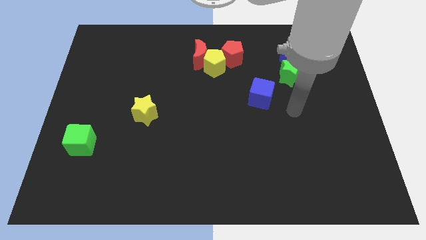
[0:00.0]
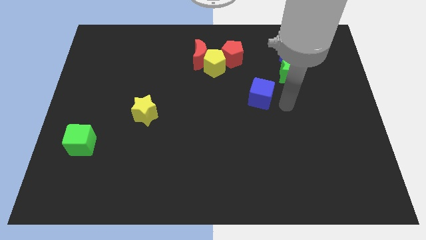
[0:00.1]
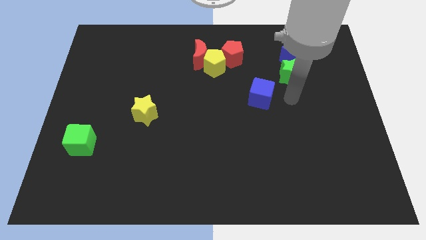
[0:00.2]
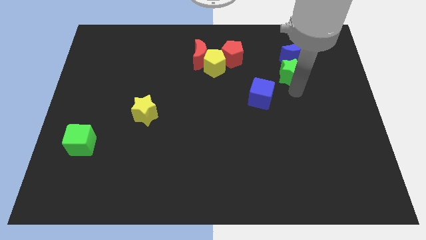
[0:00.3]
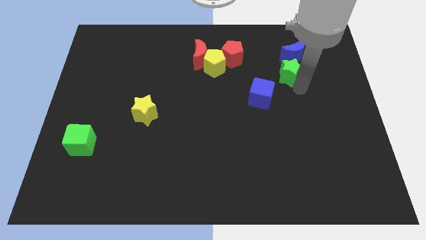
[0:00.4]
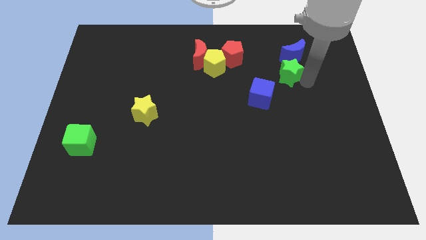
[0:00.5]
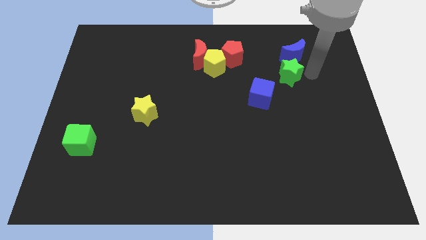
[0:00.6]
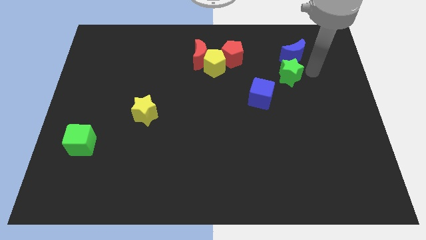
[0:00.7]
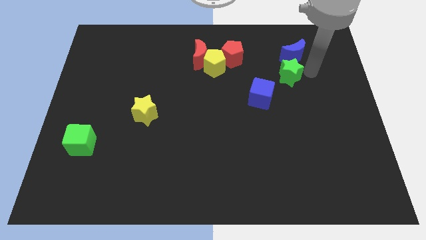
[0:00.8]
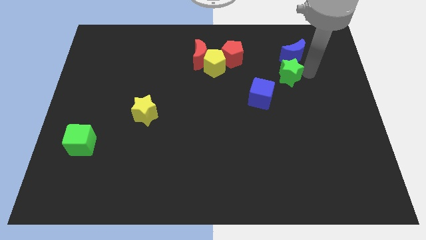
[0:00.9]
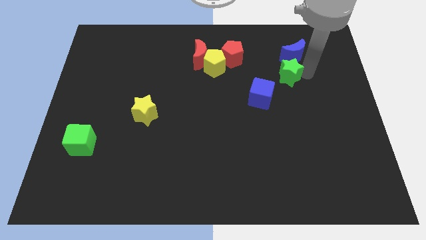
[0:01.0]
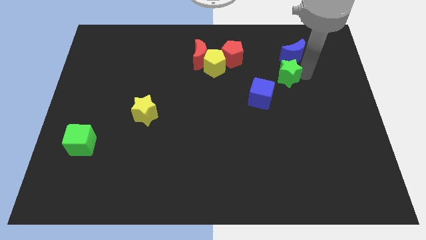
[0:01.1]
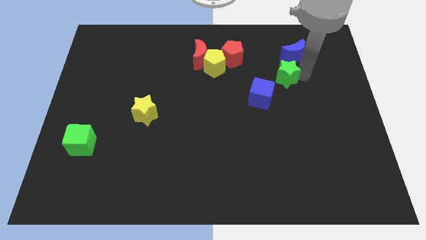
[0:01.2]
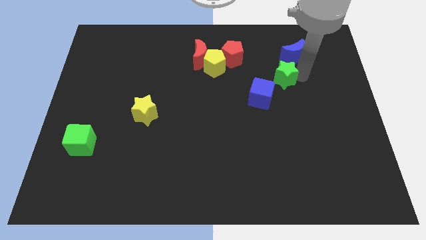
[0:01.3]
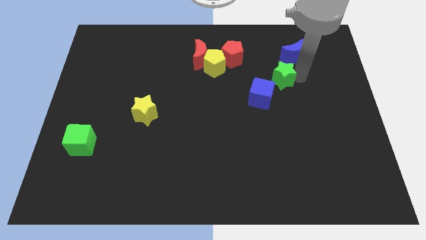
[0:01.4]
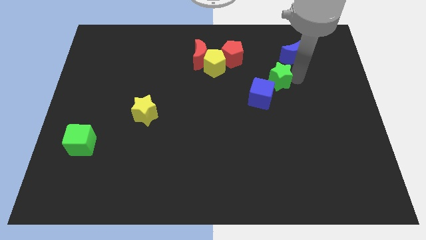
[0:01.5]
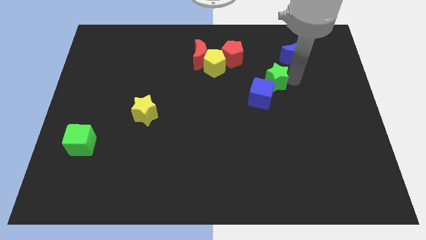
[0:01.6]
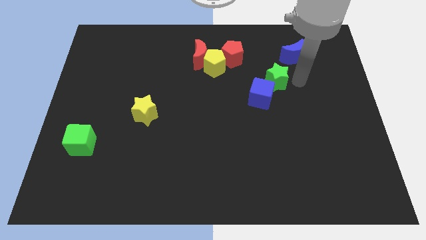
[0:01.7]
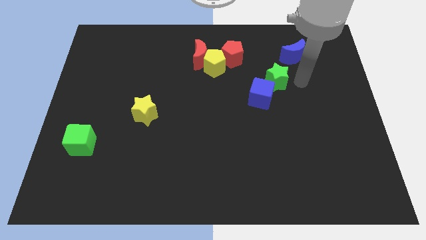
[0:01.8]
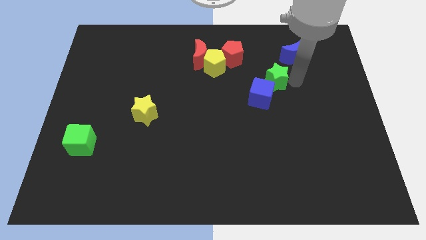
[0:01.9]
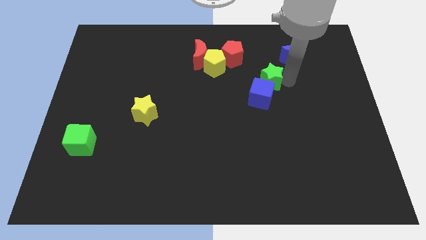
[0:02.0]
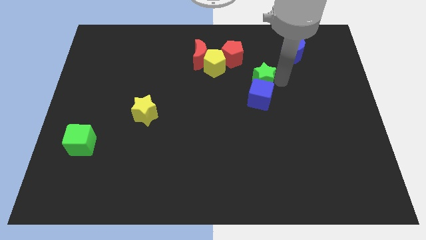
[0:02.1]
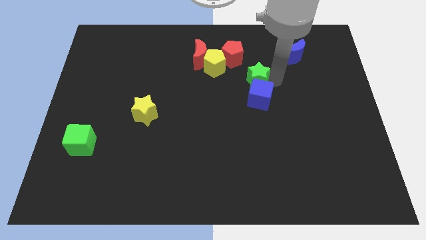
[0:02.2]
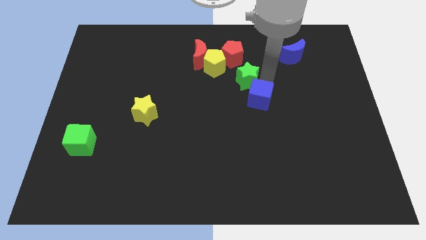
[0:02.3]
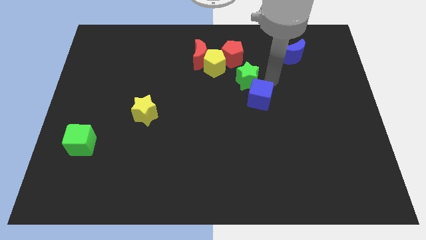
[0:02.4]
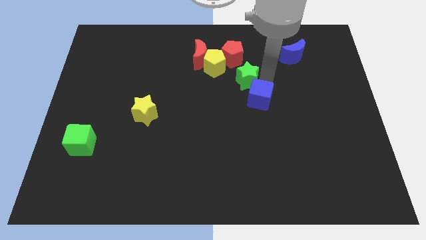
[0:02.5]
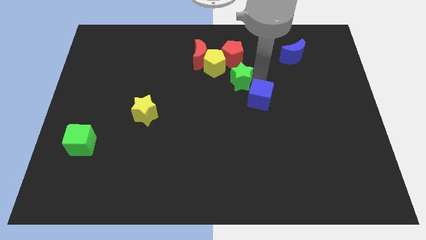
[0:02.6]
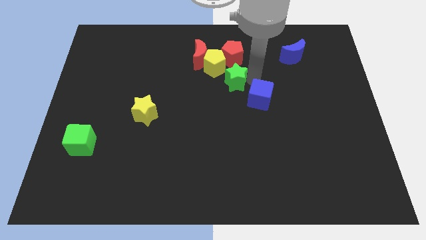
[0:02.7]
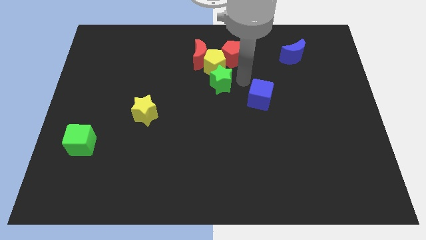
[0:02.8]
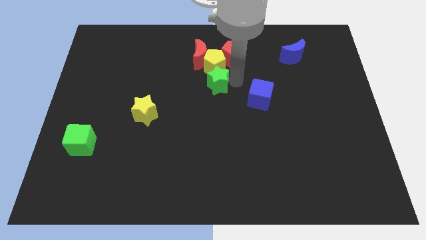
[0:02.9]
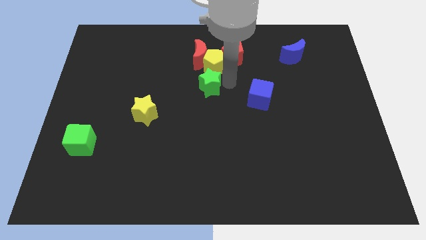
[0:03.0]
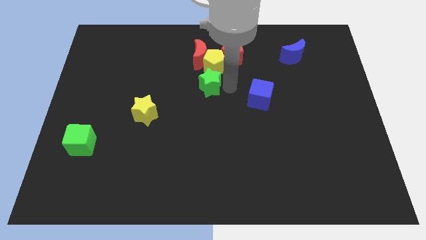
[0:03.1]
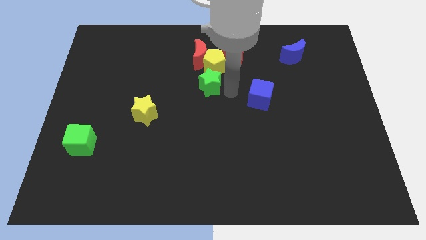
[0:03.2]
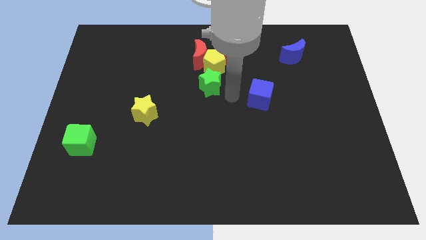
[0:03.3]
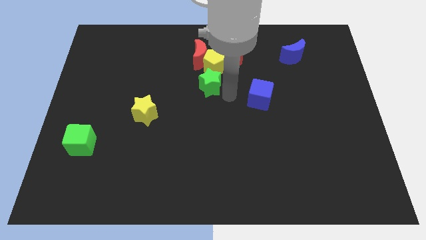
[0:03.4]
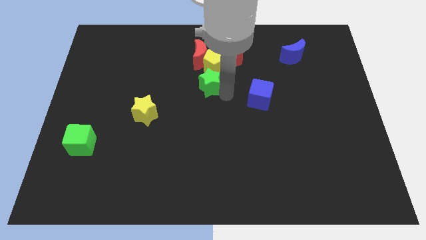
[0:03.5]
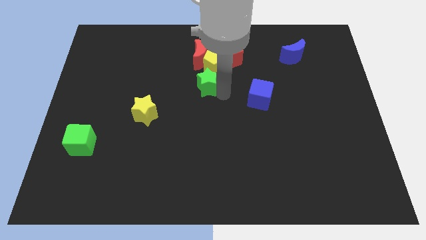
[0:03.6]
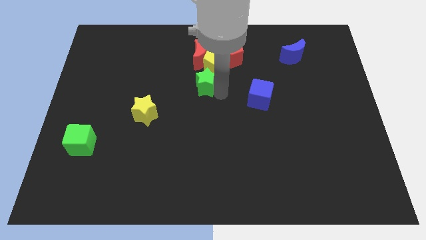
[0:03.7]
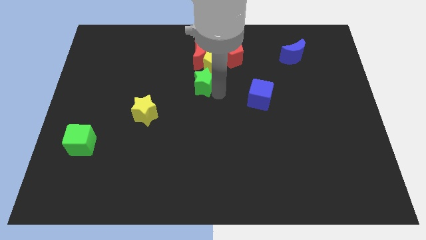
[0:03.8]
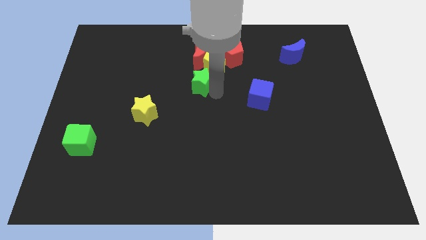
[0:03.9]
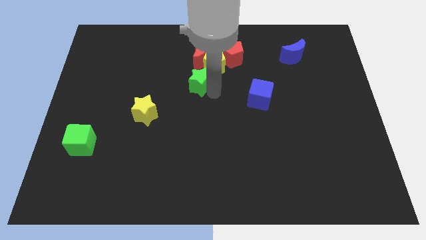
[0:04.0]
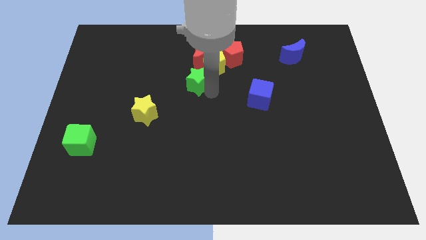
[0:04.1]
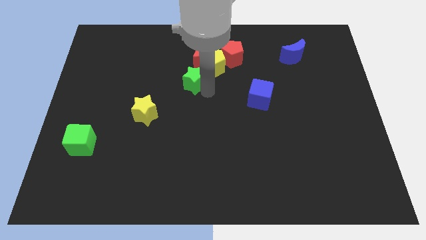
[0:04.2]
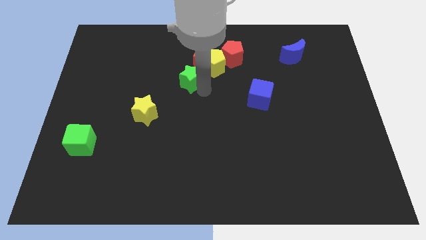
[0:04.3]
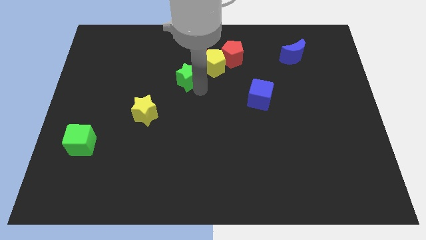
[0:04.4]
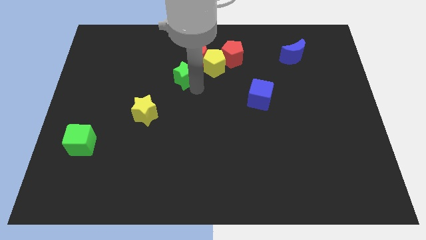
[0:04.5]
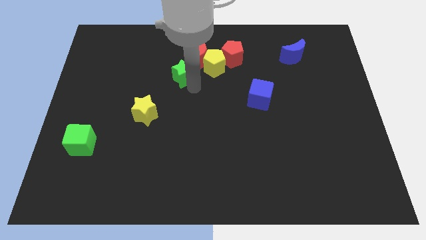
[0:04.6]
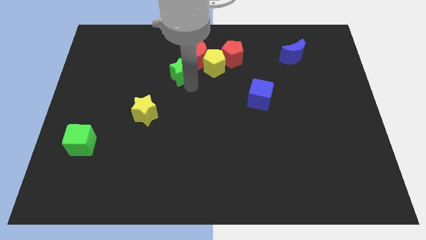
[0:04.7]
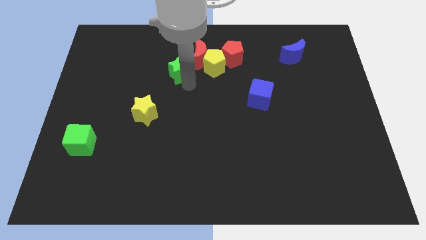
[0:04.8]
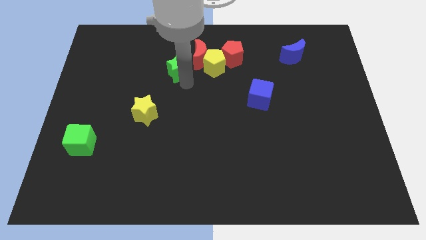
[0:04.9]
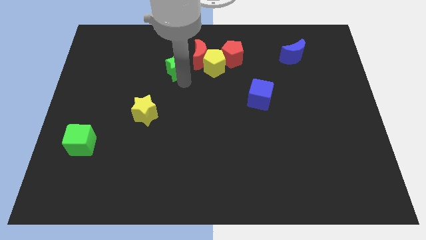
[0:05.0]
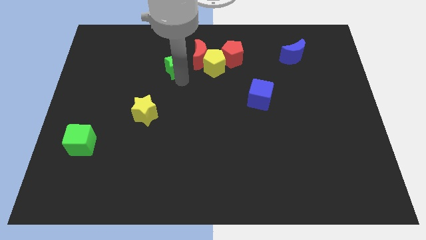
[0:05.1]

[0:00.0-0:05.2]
slide the green star just left of the red pentagon

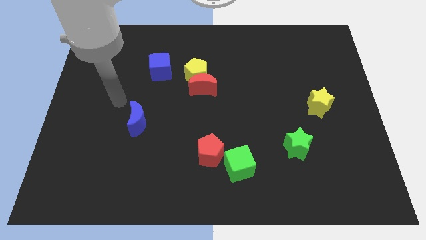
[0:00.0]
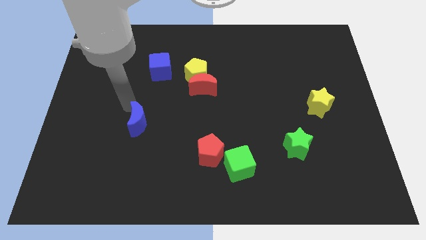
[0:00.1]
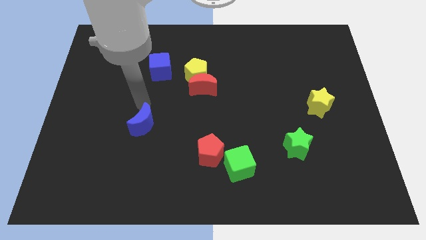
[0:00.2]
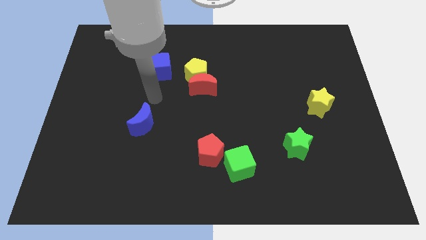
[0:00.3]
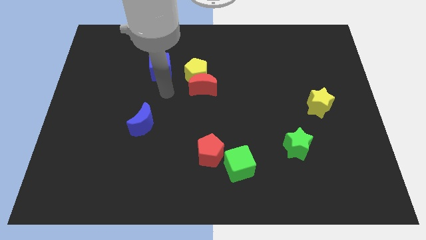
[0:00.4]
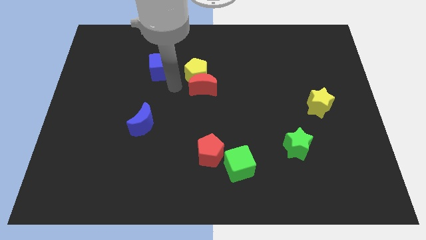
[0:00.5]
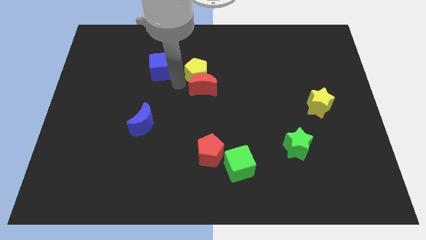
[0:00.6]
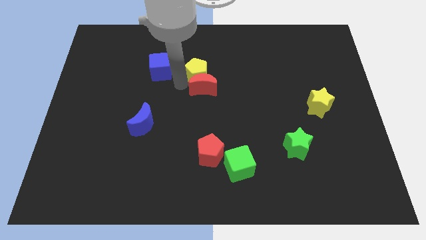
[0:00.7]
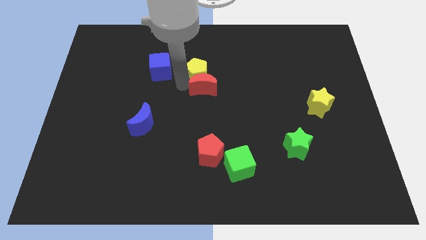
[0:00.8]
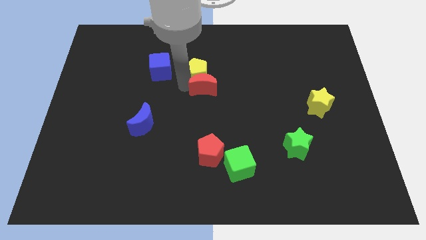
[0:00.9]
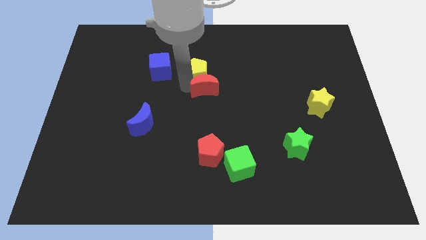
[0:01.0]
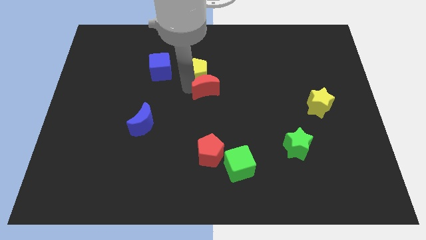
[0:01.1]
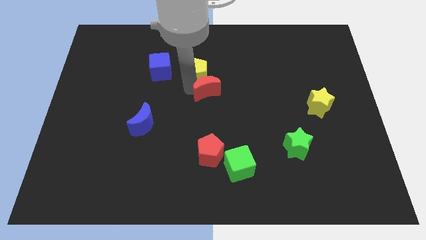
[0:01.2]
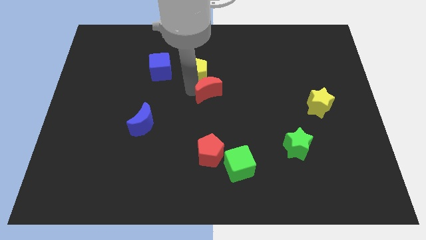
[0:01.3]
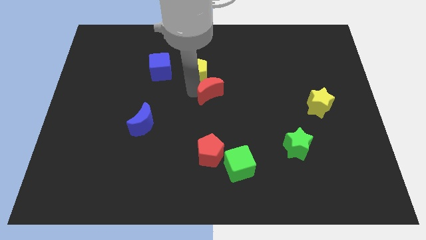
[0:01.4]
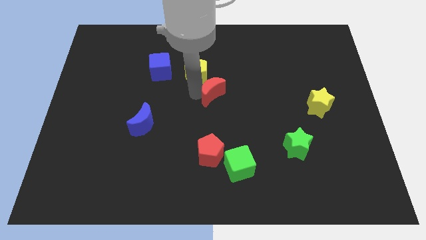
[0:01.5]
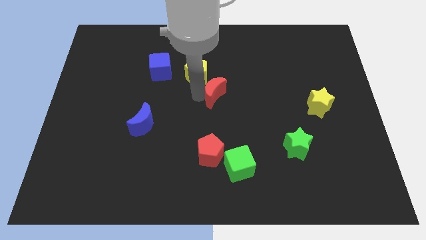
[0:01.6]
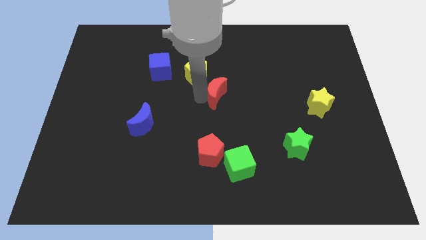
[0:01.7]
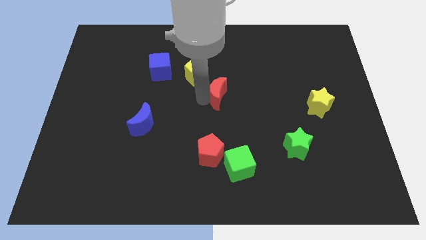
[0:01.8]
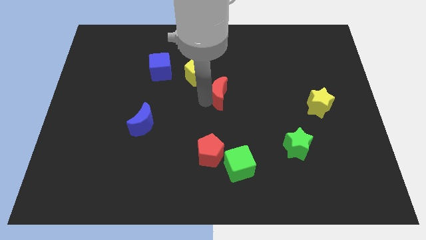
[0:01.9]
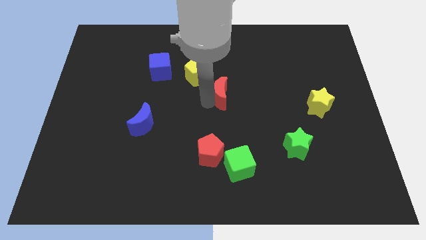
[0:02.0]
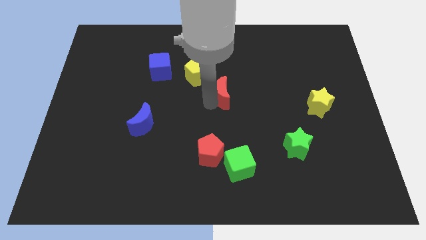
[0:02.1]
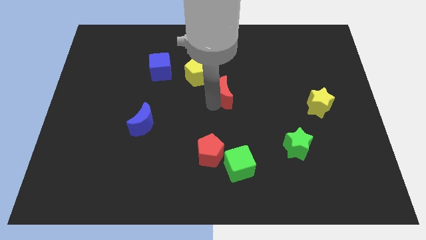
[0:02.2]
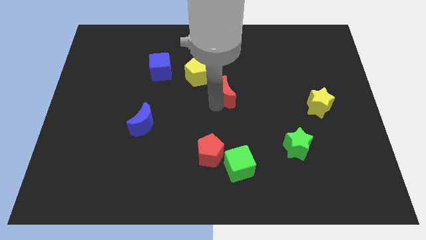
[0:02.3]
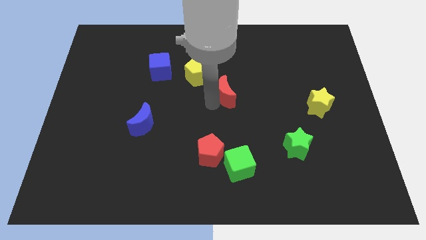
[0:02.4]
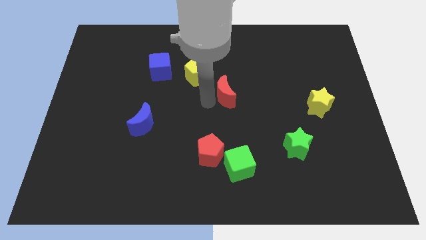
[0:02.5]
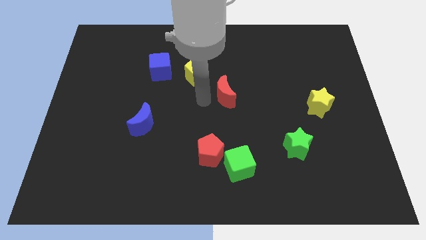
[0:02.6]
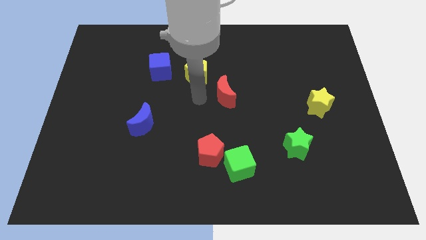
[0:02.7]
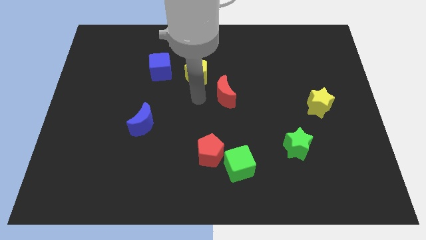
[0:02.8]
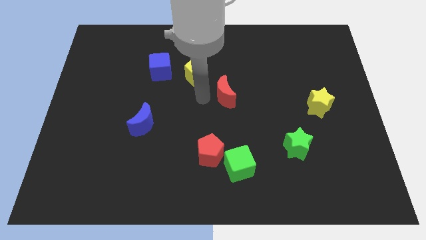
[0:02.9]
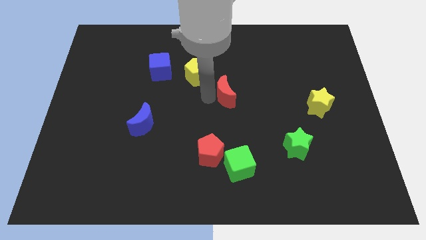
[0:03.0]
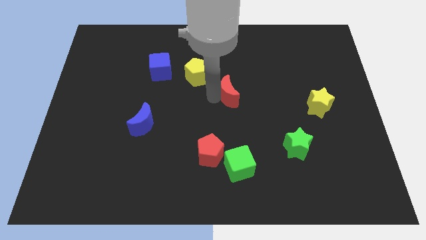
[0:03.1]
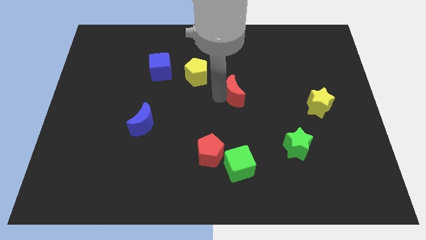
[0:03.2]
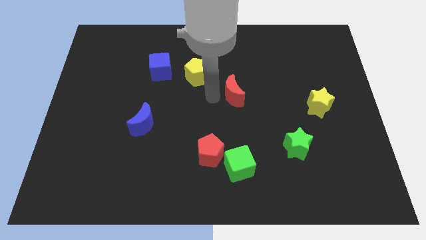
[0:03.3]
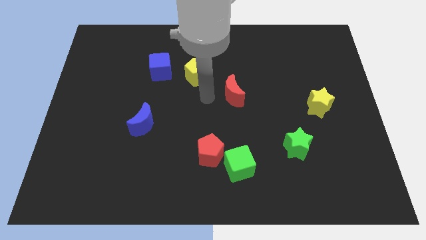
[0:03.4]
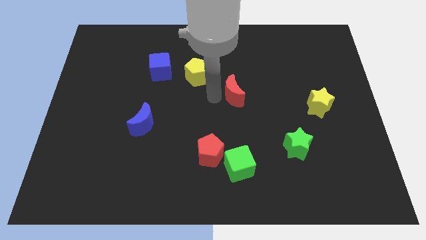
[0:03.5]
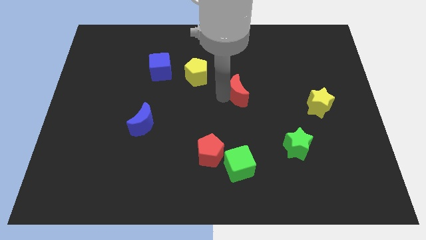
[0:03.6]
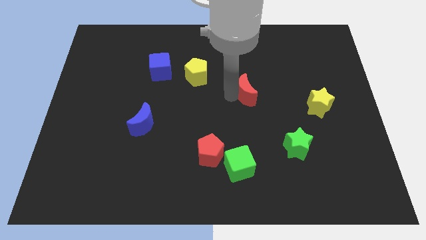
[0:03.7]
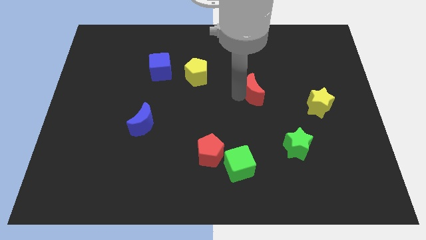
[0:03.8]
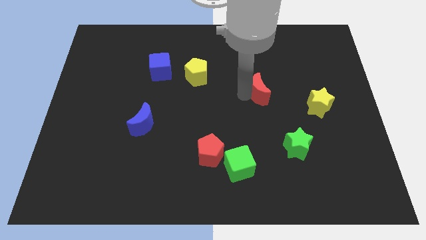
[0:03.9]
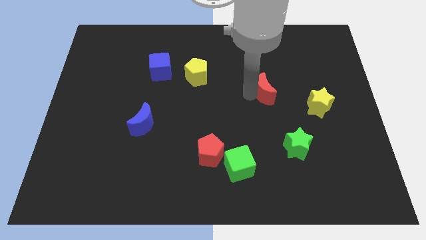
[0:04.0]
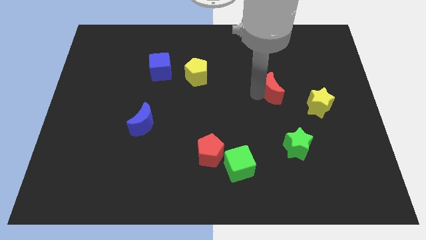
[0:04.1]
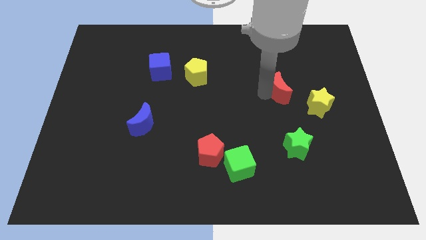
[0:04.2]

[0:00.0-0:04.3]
slide the red moon diagonally up and to the left of the yellow star
